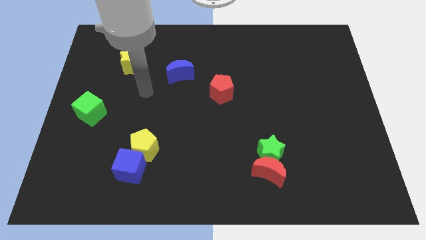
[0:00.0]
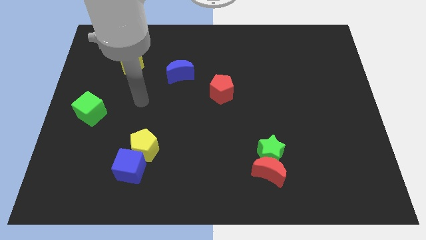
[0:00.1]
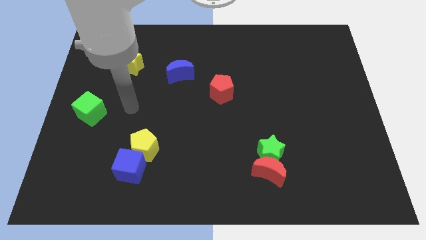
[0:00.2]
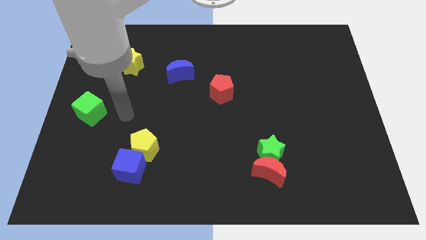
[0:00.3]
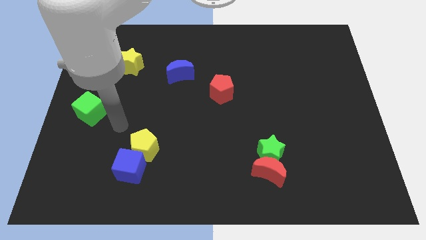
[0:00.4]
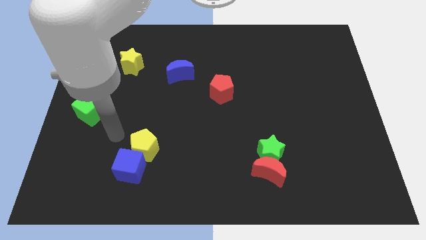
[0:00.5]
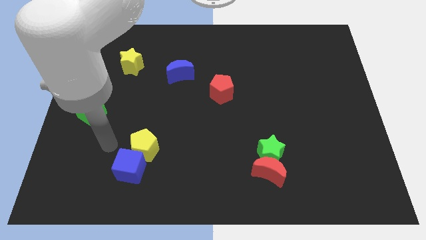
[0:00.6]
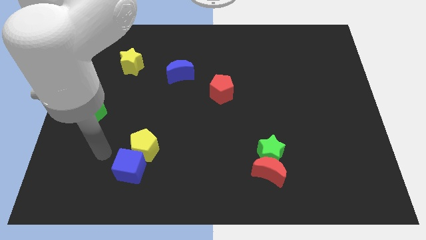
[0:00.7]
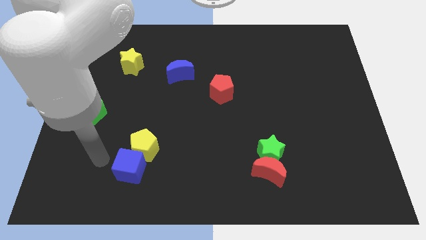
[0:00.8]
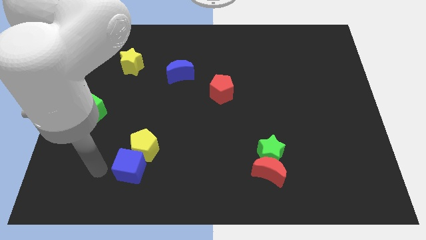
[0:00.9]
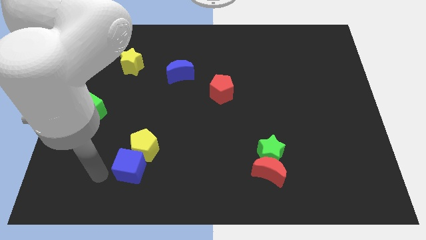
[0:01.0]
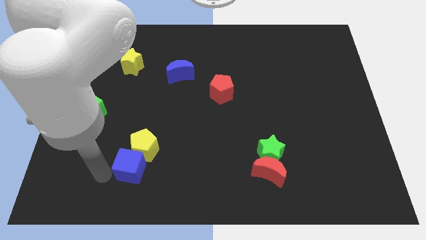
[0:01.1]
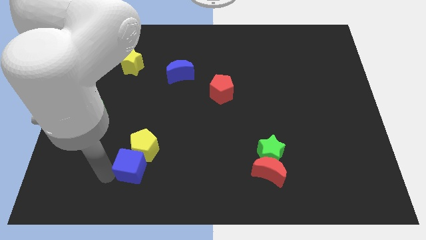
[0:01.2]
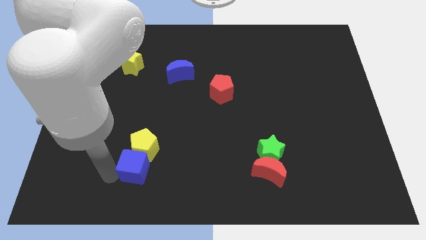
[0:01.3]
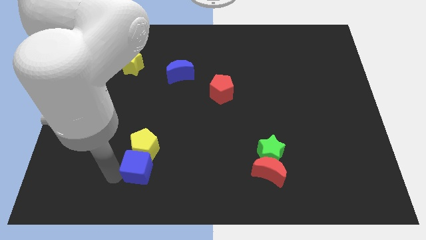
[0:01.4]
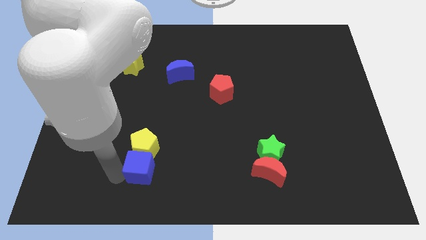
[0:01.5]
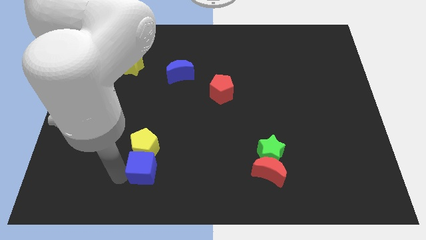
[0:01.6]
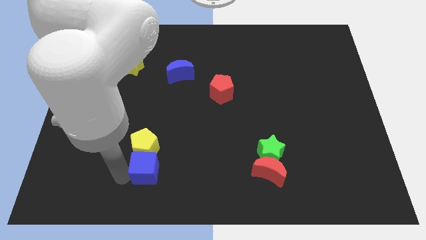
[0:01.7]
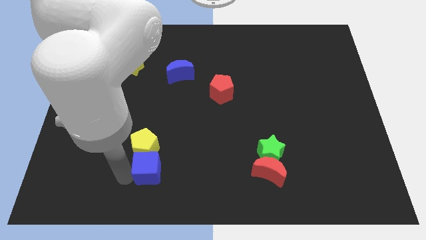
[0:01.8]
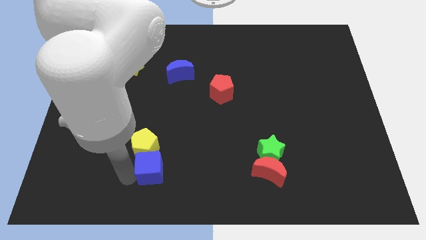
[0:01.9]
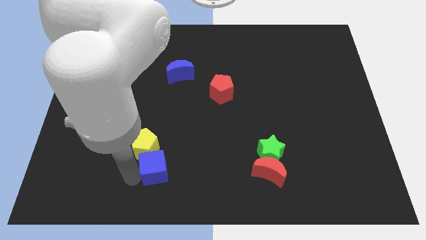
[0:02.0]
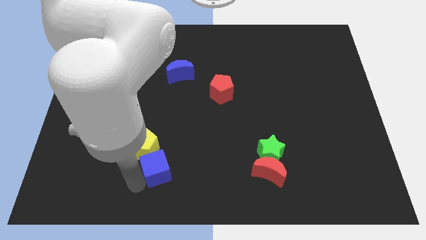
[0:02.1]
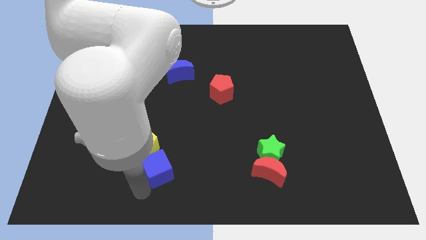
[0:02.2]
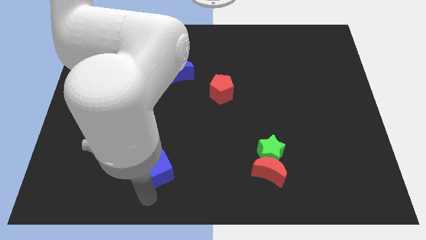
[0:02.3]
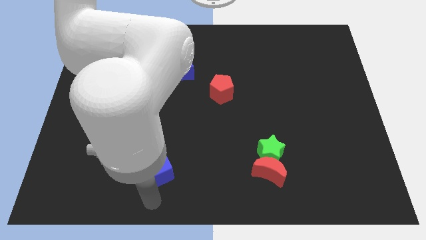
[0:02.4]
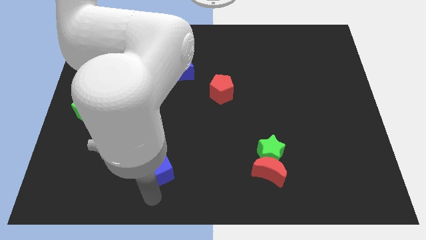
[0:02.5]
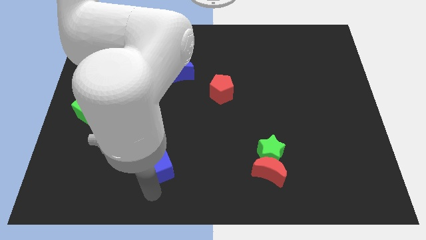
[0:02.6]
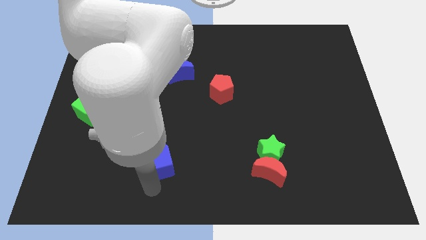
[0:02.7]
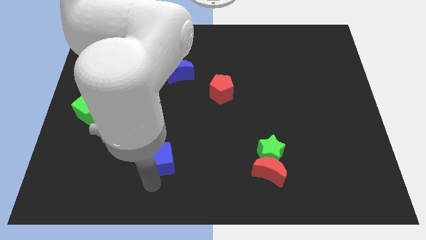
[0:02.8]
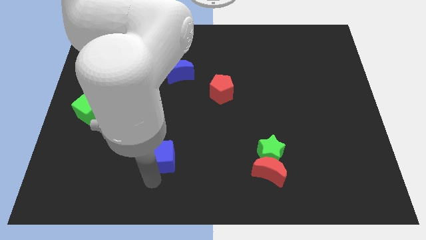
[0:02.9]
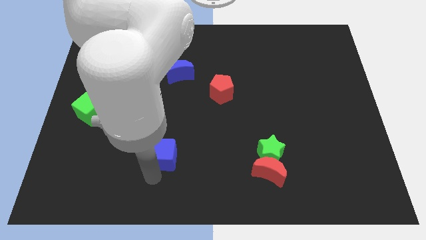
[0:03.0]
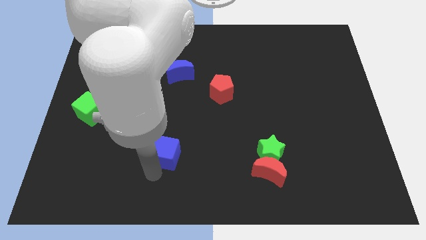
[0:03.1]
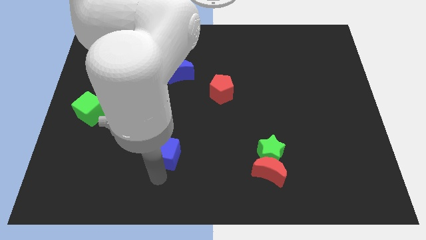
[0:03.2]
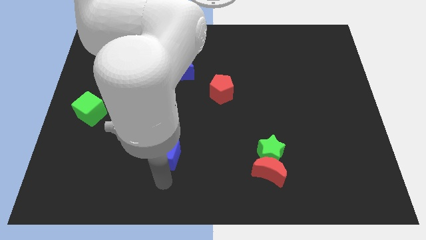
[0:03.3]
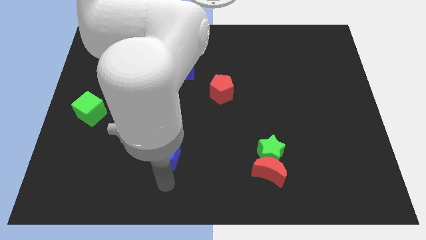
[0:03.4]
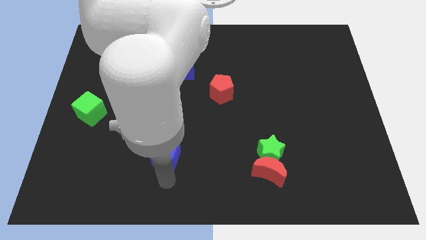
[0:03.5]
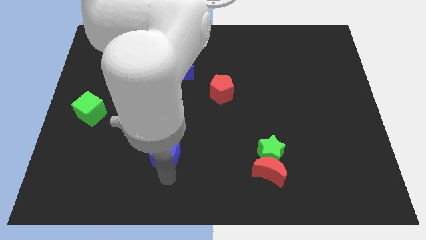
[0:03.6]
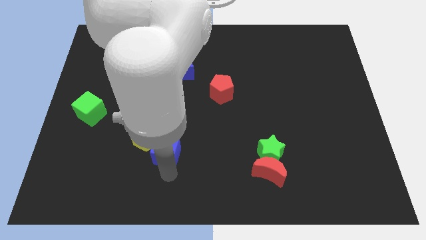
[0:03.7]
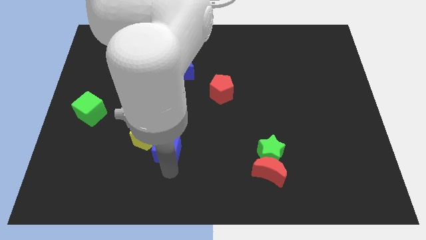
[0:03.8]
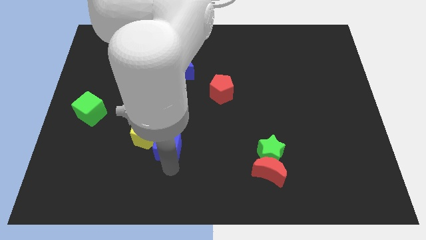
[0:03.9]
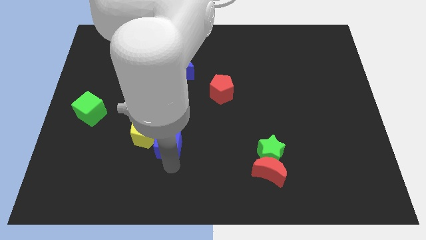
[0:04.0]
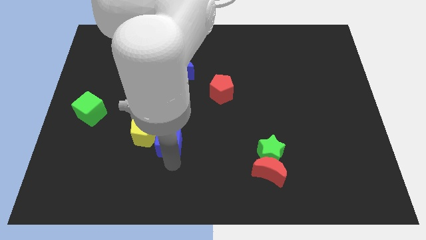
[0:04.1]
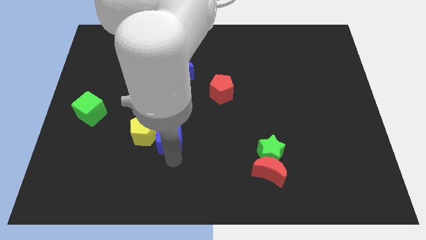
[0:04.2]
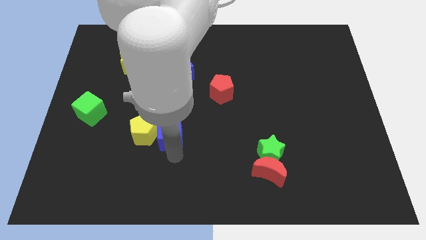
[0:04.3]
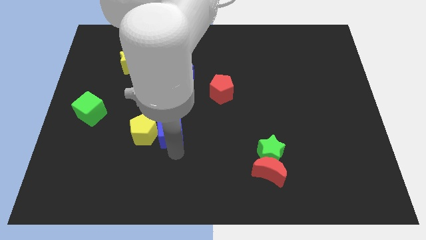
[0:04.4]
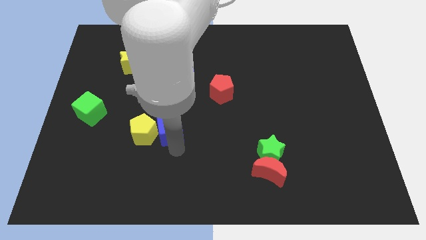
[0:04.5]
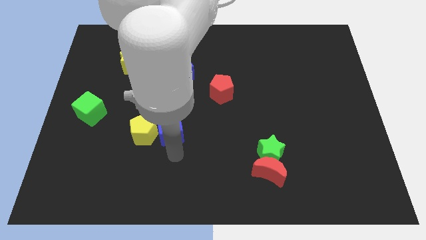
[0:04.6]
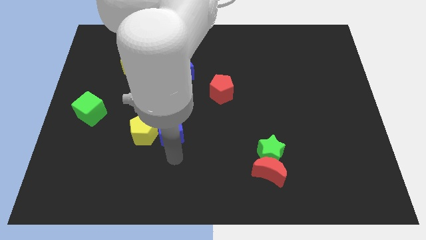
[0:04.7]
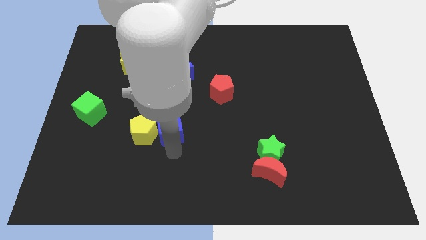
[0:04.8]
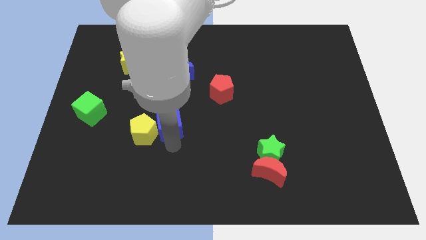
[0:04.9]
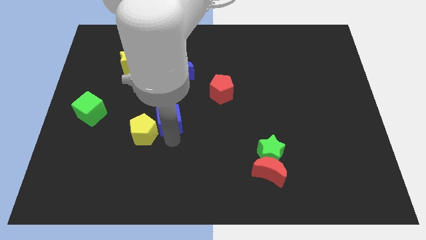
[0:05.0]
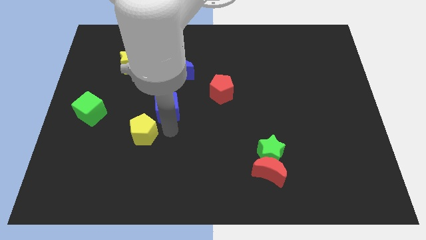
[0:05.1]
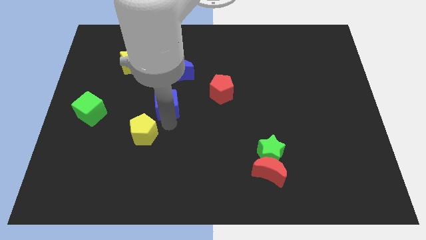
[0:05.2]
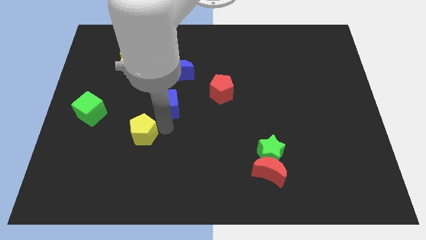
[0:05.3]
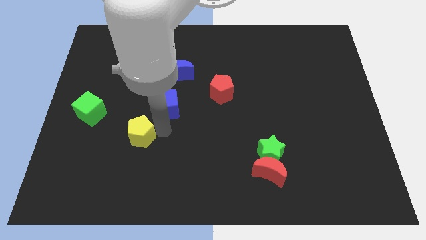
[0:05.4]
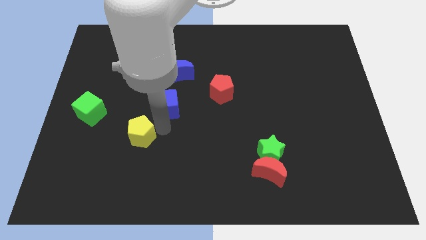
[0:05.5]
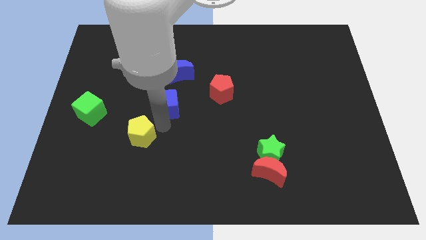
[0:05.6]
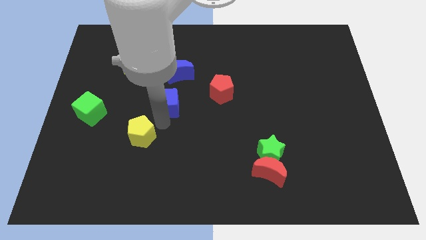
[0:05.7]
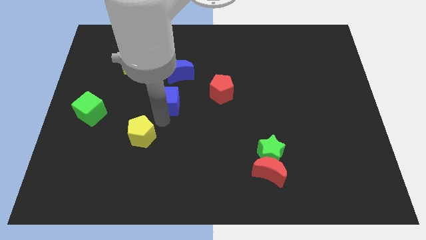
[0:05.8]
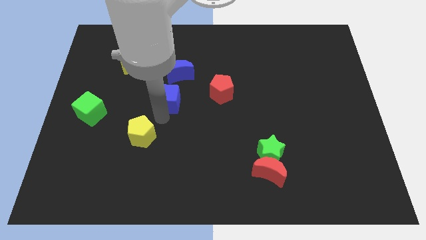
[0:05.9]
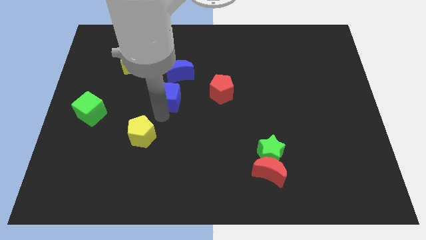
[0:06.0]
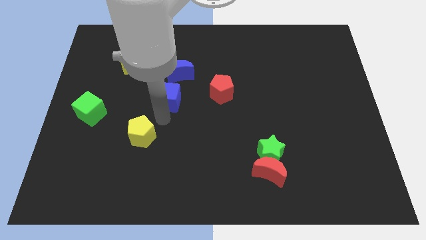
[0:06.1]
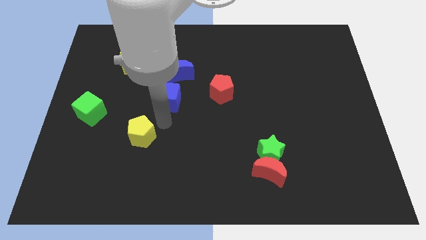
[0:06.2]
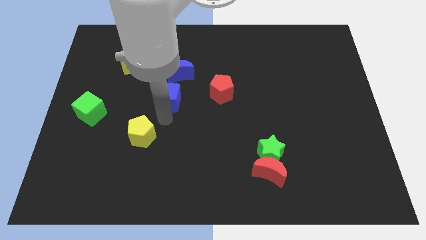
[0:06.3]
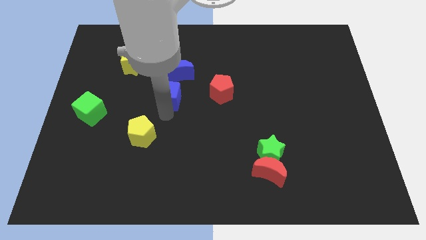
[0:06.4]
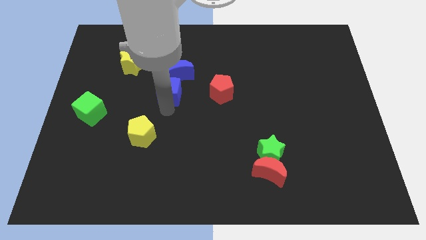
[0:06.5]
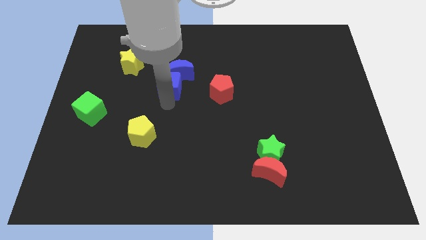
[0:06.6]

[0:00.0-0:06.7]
put the blue cube next to the blue moon
